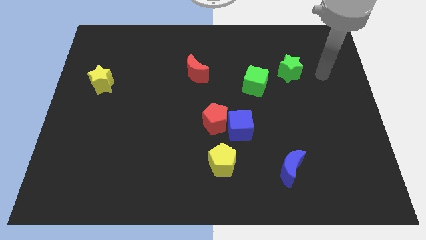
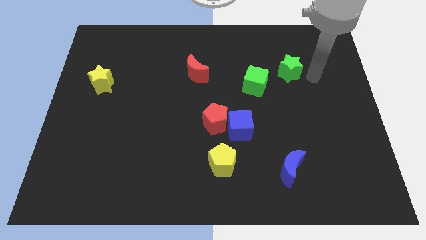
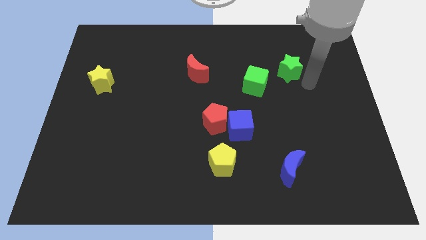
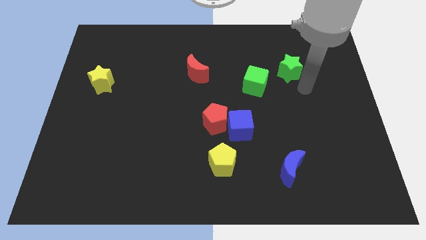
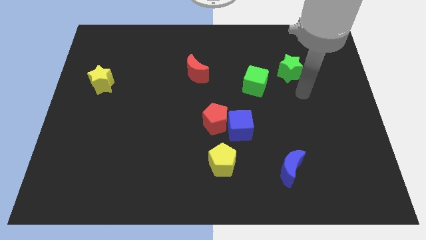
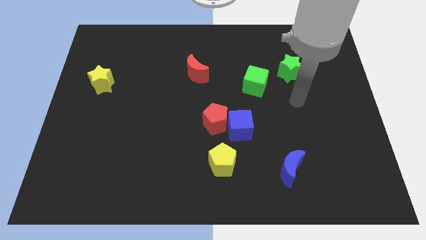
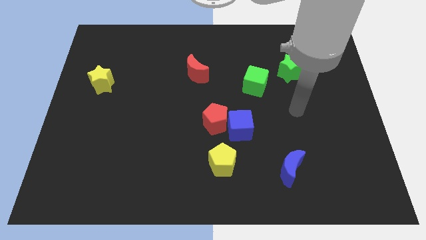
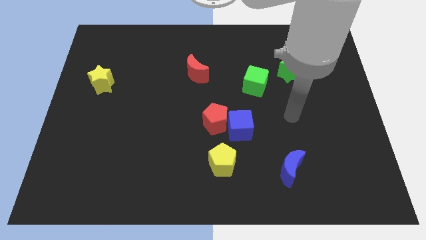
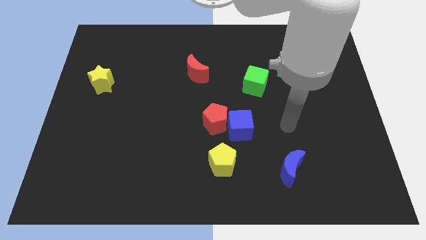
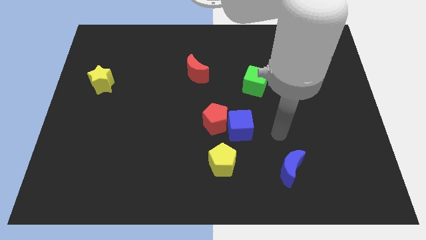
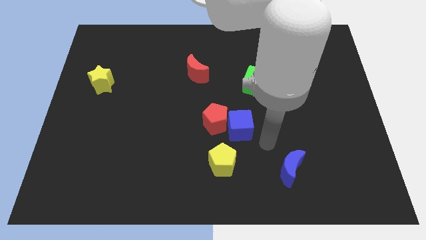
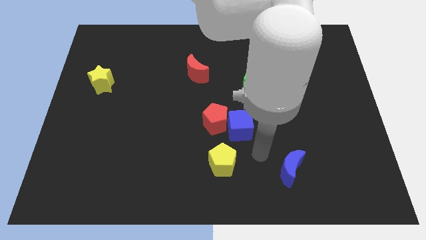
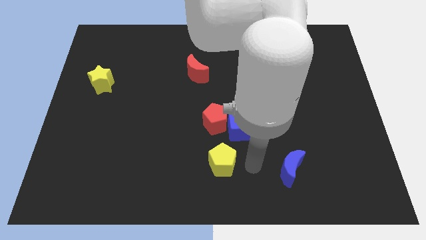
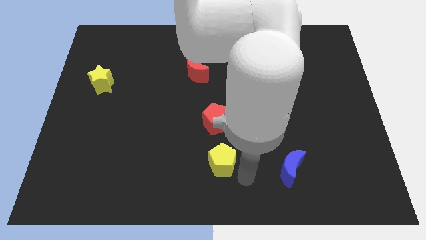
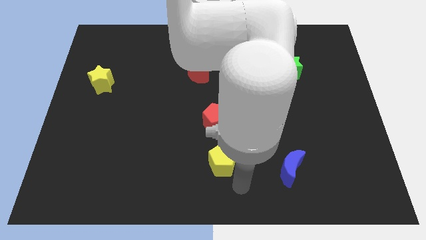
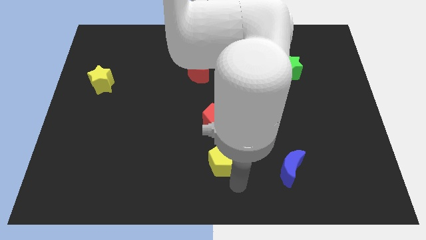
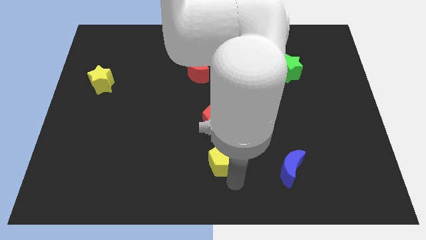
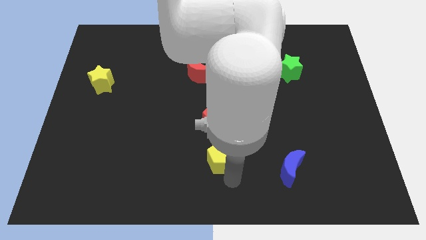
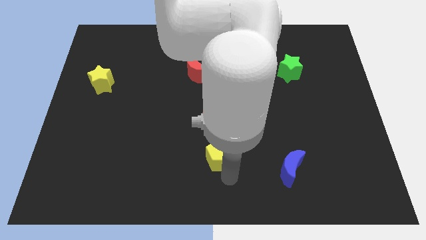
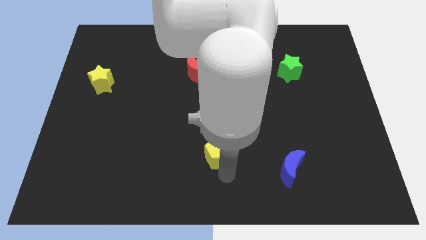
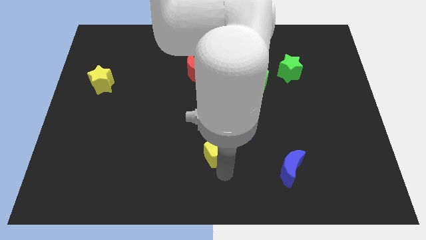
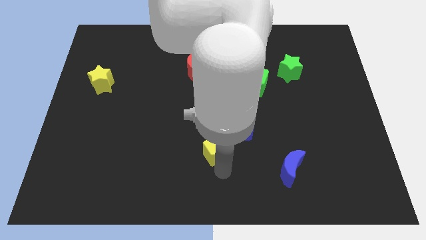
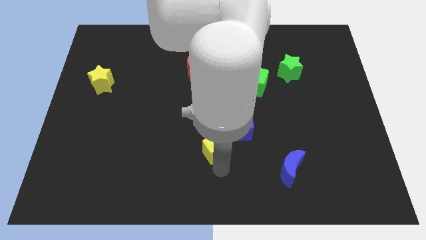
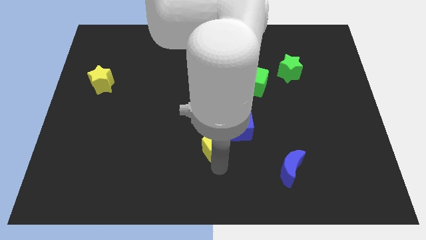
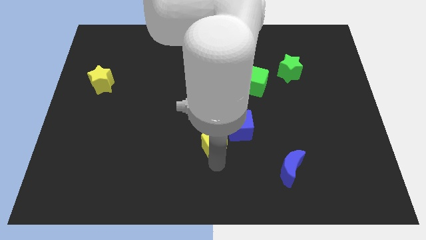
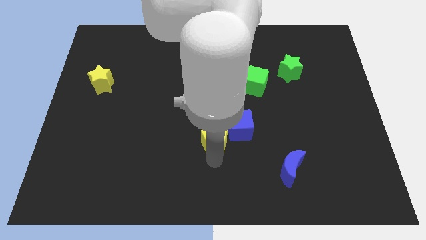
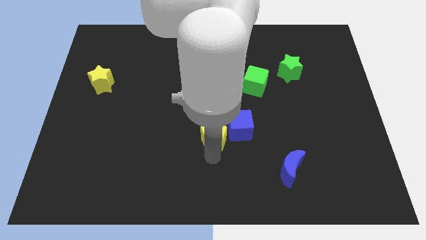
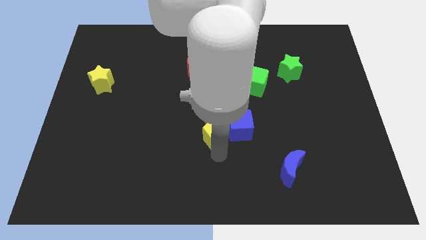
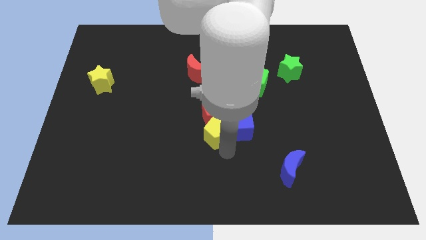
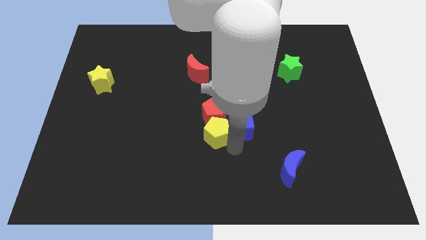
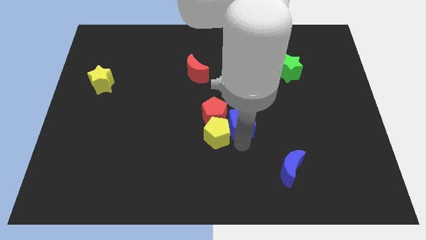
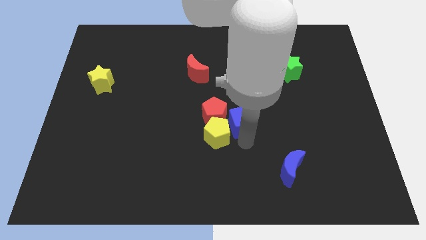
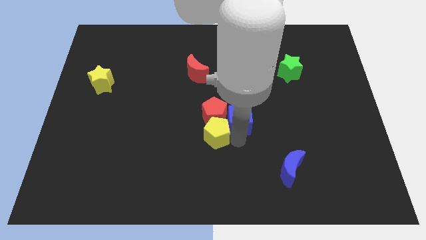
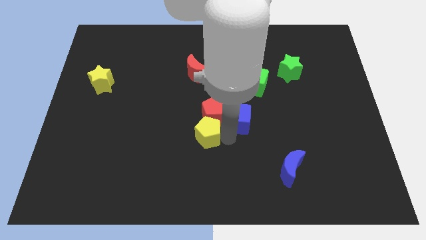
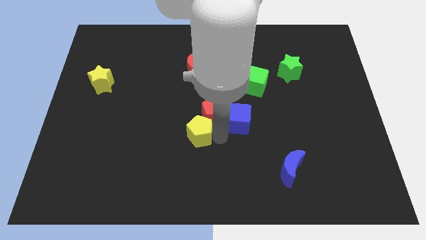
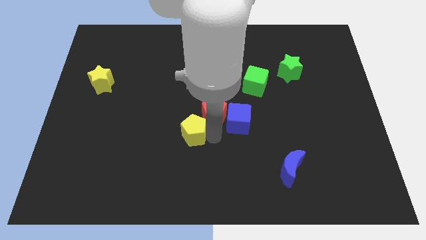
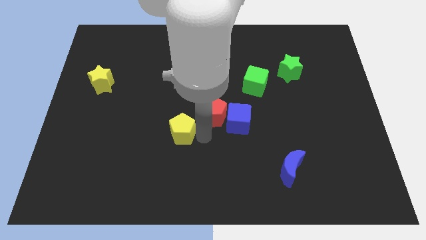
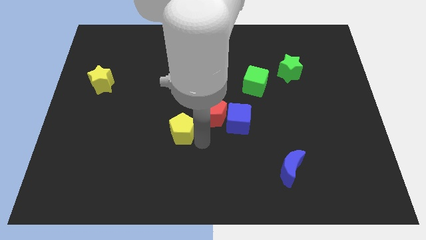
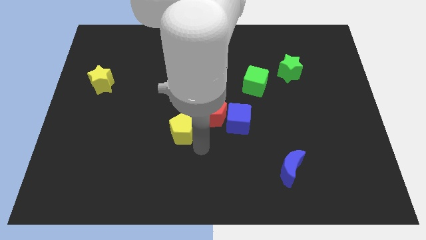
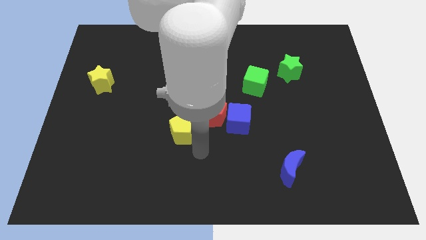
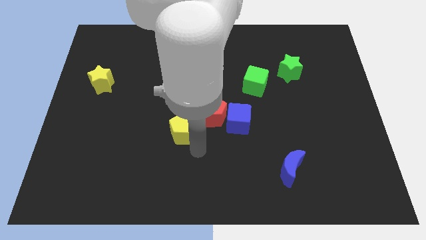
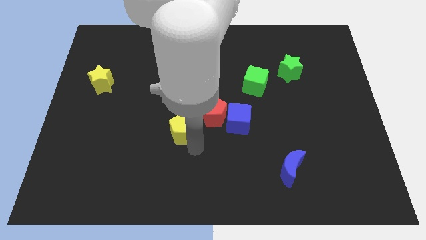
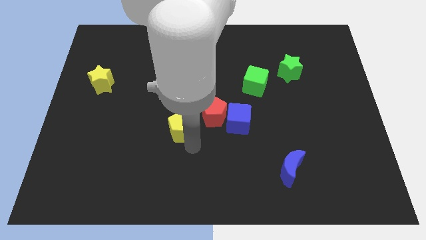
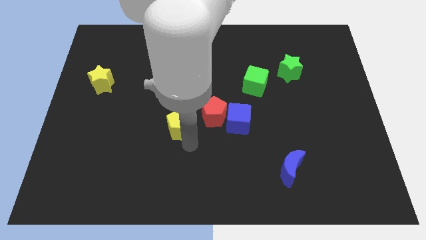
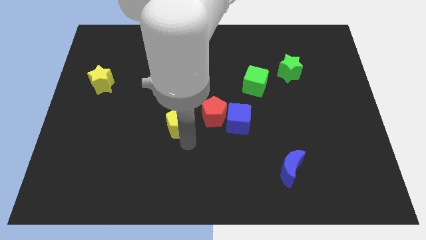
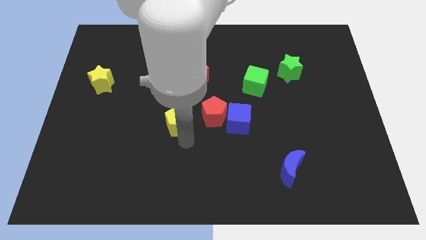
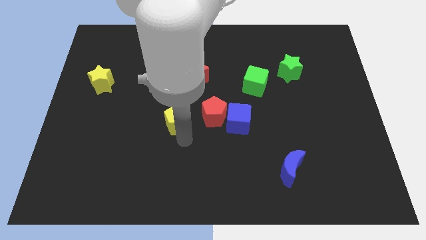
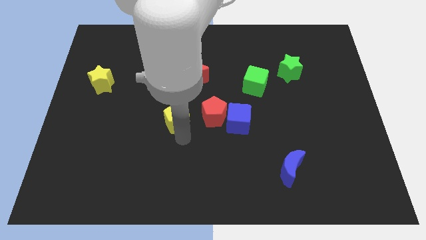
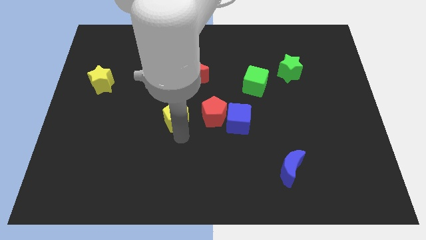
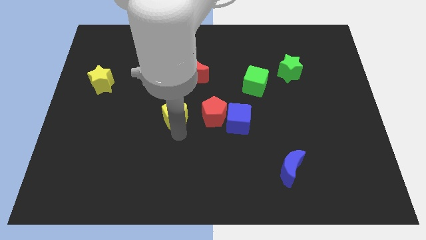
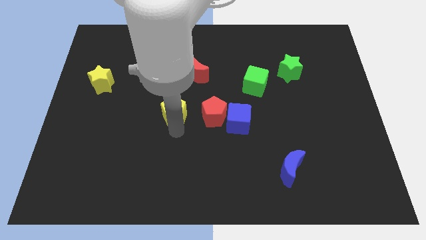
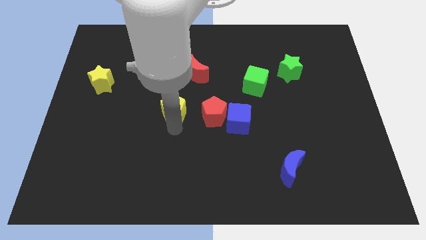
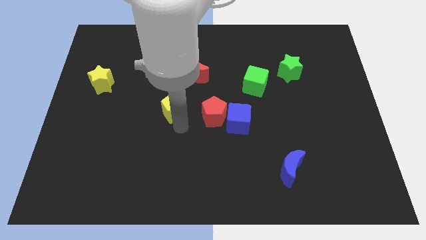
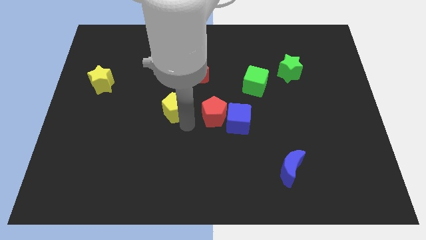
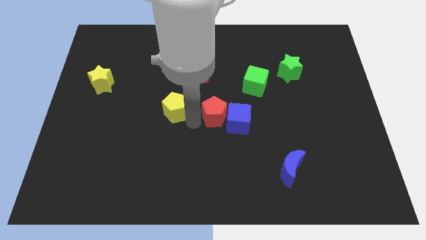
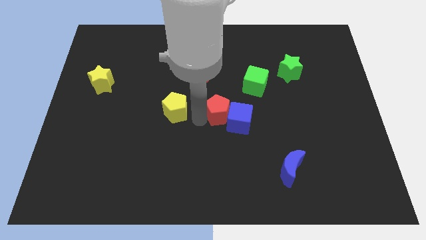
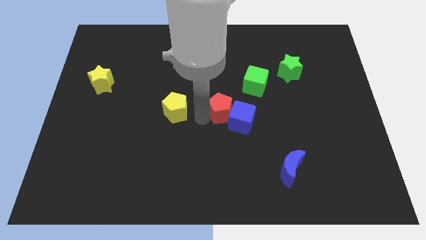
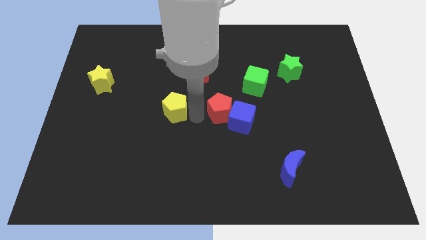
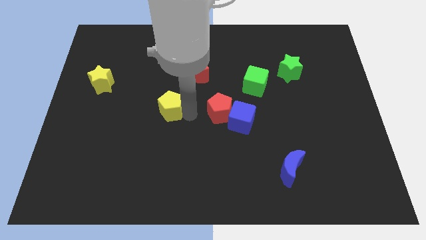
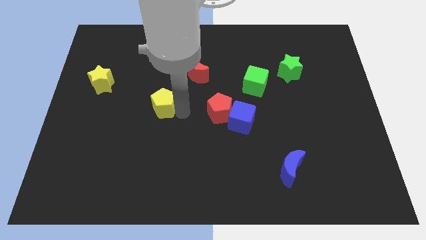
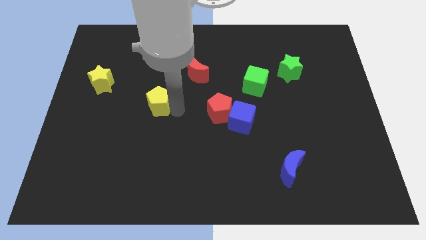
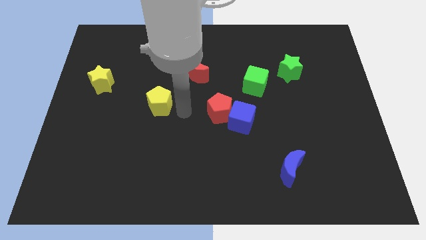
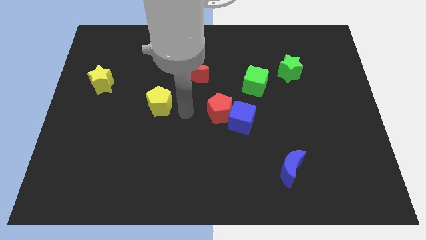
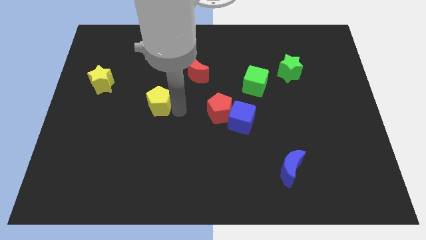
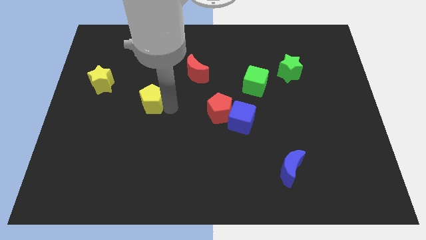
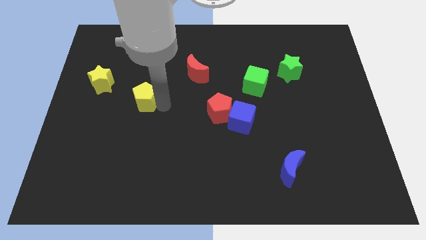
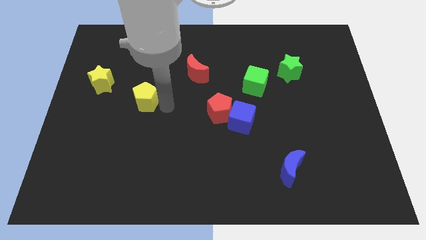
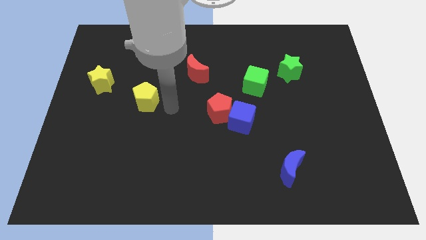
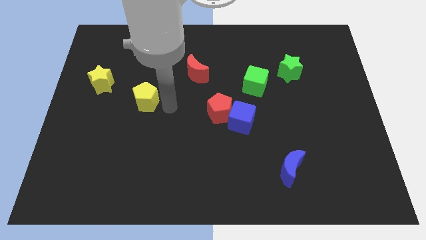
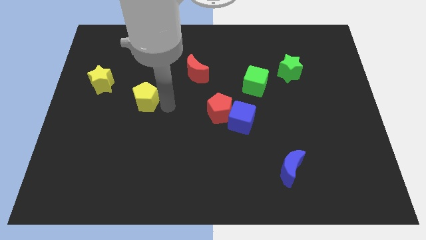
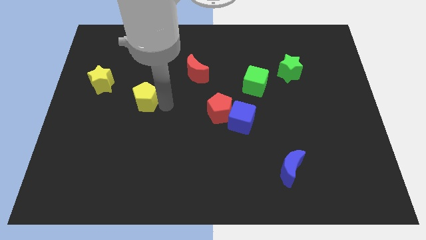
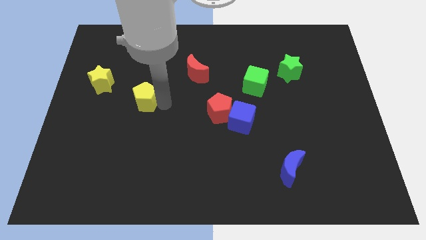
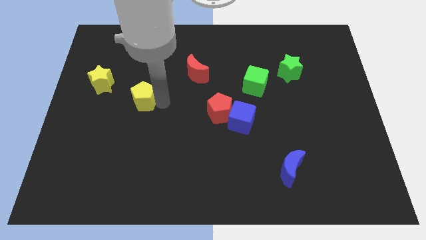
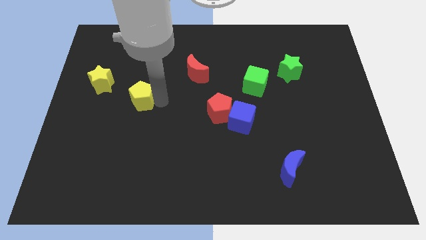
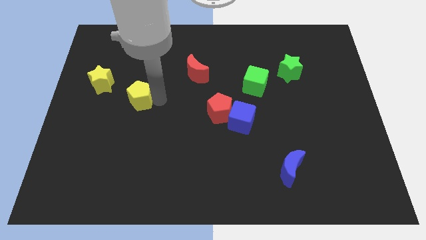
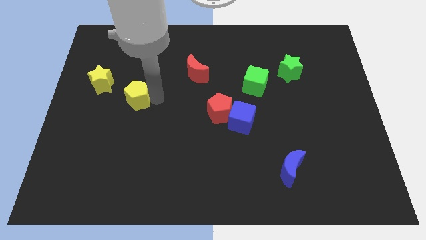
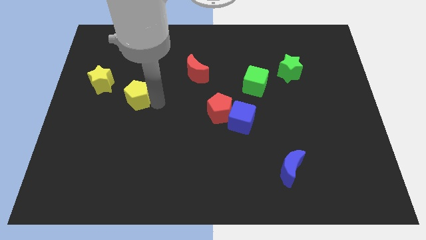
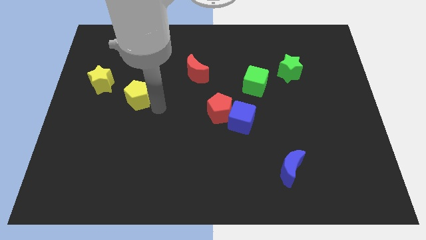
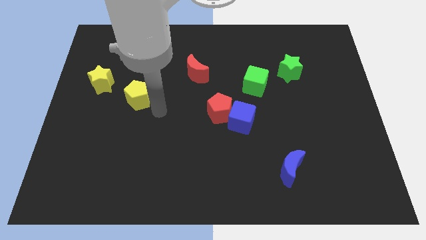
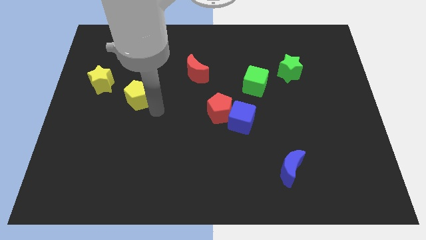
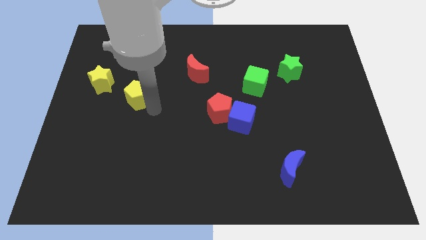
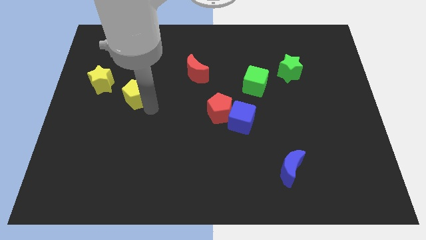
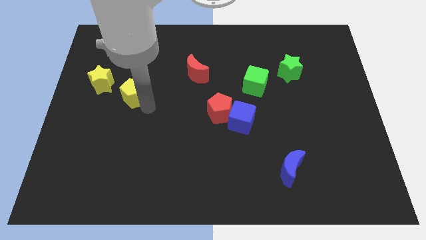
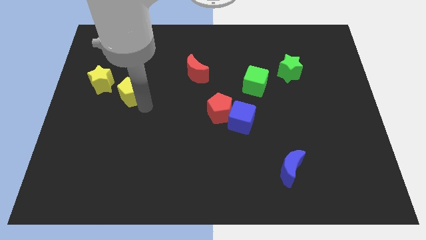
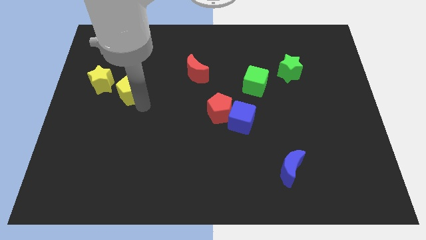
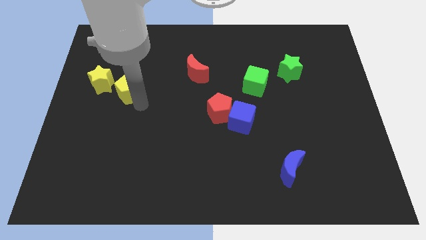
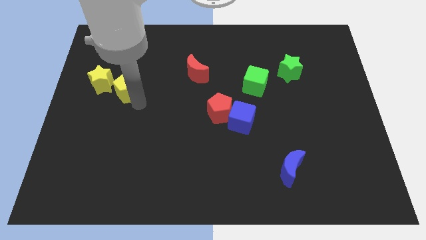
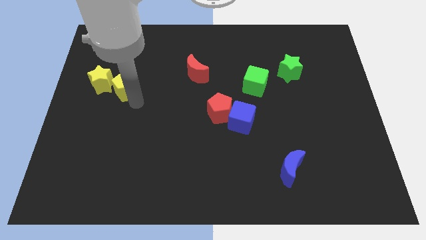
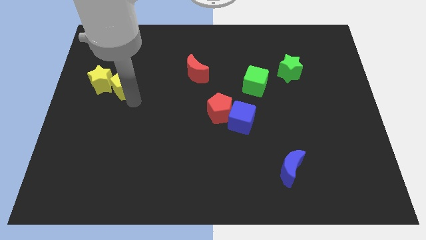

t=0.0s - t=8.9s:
put the yellow pentagon next to the yellow star
